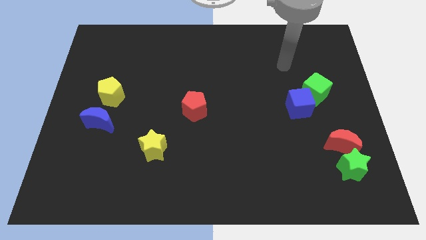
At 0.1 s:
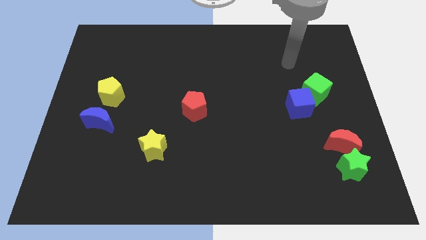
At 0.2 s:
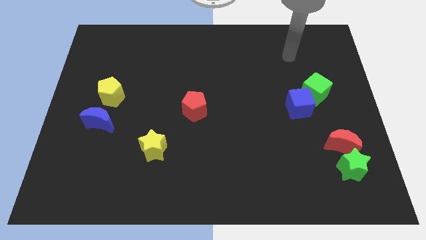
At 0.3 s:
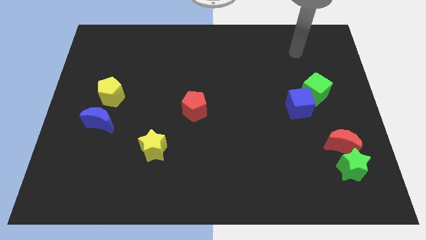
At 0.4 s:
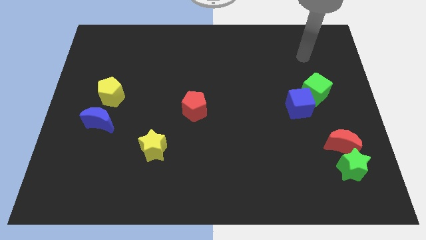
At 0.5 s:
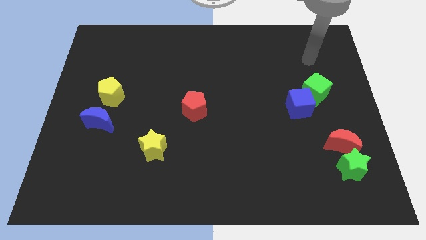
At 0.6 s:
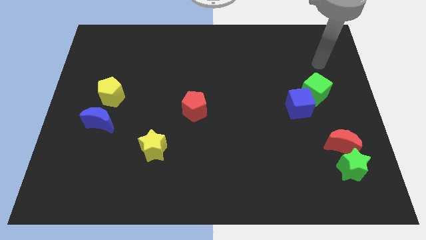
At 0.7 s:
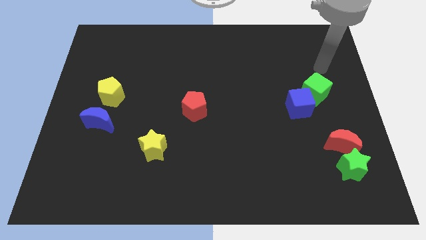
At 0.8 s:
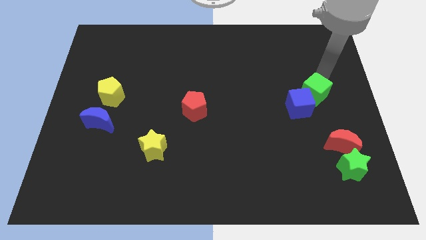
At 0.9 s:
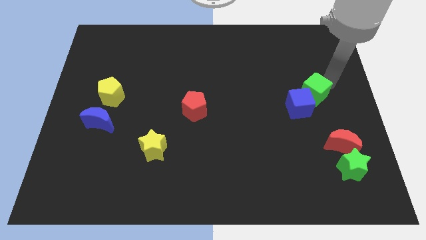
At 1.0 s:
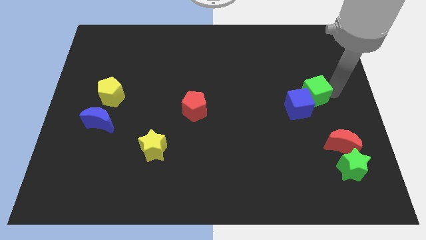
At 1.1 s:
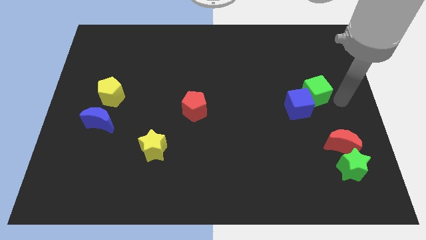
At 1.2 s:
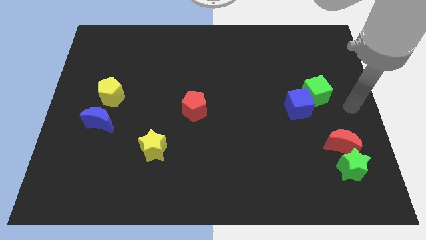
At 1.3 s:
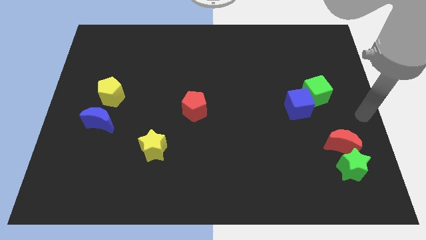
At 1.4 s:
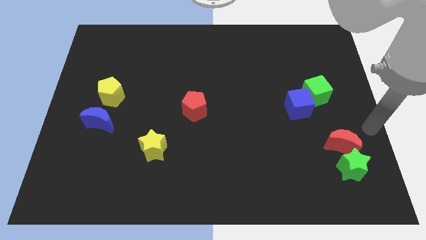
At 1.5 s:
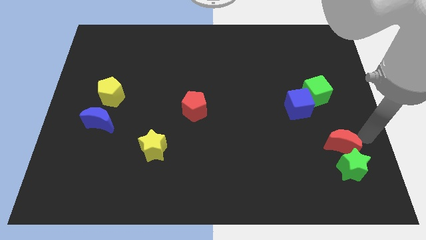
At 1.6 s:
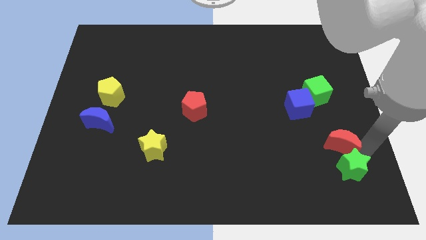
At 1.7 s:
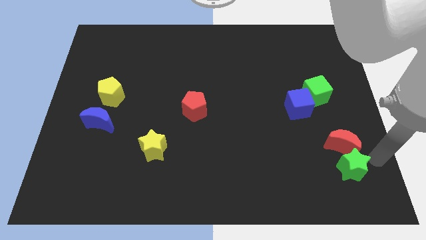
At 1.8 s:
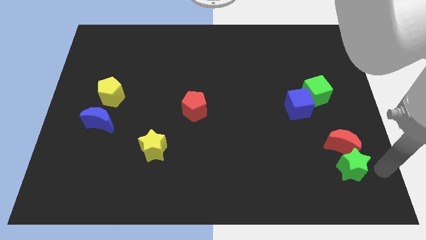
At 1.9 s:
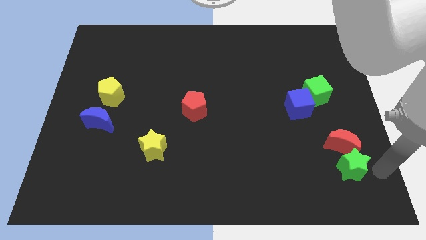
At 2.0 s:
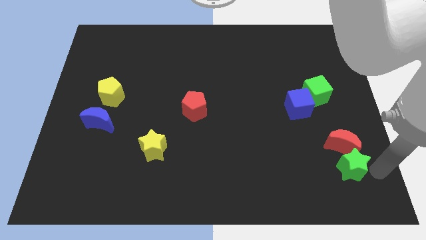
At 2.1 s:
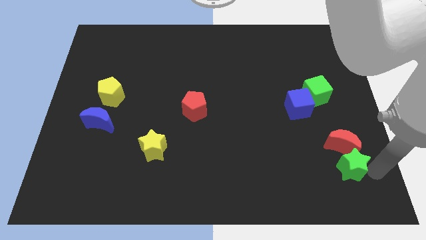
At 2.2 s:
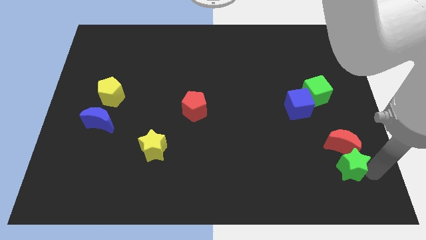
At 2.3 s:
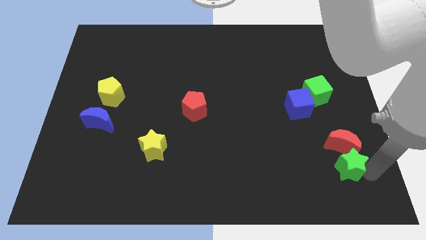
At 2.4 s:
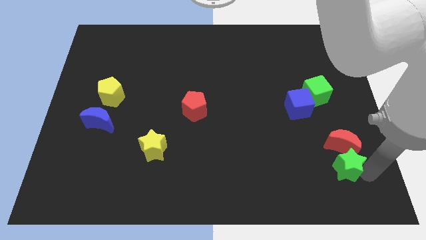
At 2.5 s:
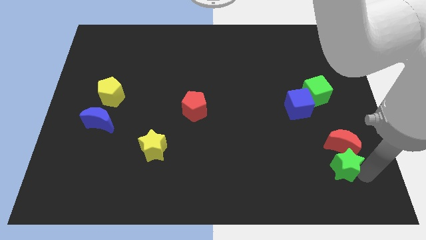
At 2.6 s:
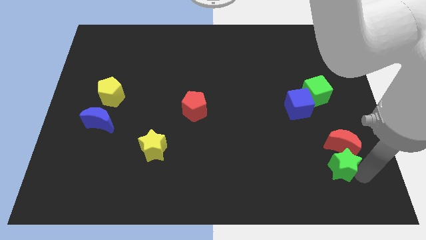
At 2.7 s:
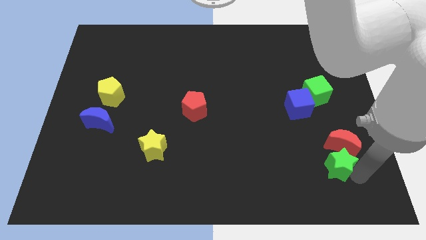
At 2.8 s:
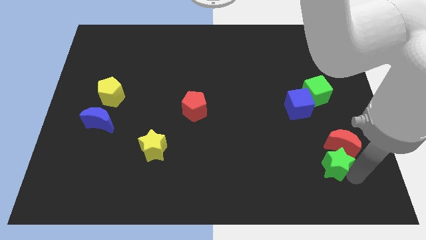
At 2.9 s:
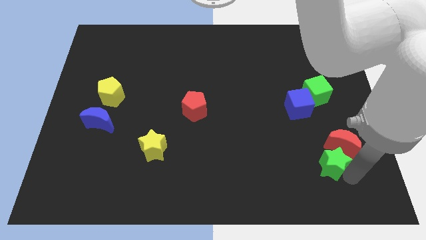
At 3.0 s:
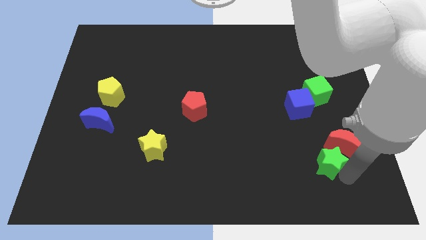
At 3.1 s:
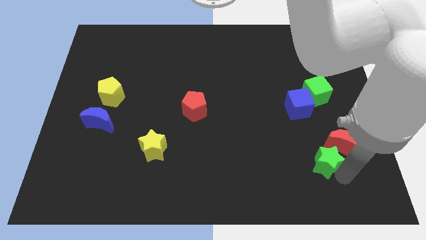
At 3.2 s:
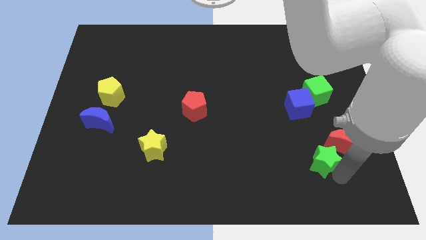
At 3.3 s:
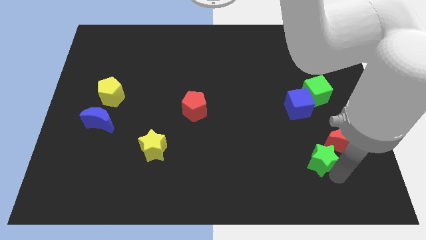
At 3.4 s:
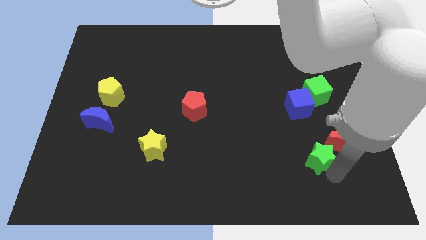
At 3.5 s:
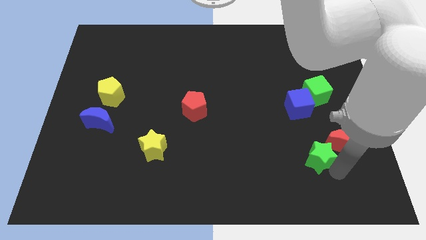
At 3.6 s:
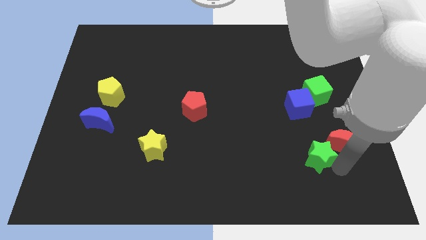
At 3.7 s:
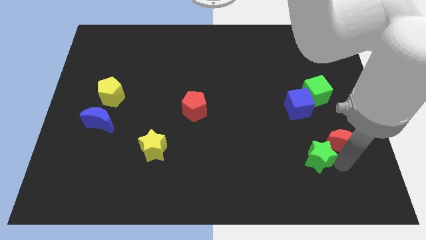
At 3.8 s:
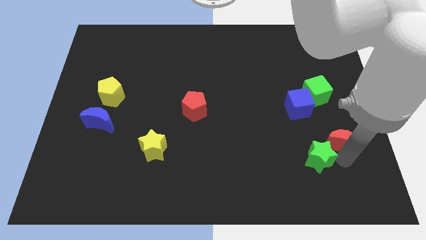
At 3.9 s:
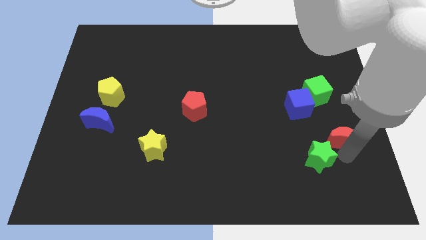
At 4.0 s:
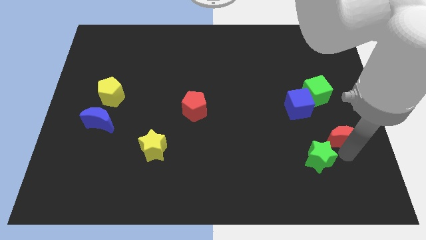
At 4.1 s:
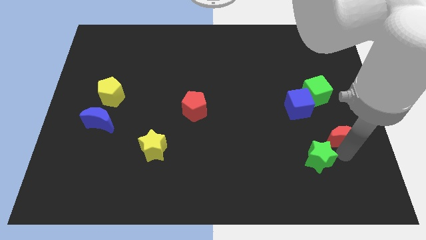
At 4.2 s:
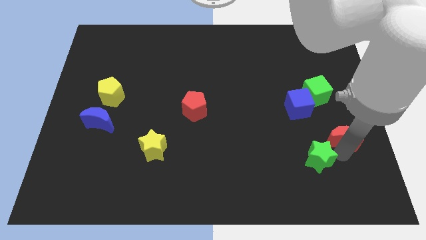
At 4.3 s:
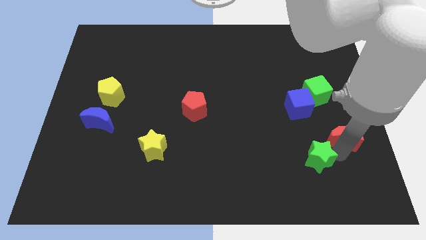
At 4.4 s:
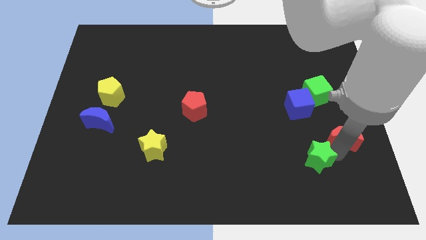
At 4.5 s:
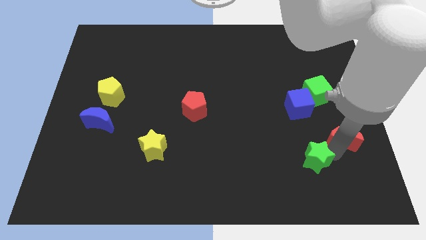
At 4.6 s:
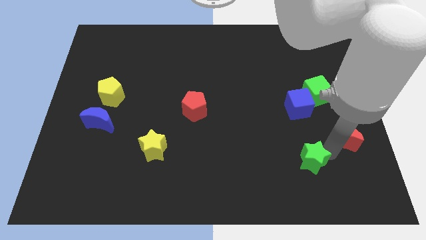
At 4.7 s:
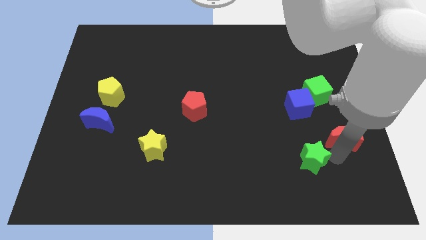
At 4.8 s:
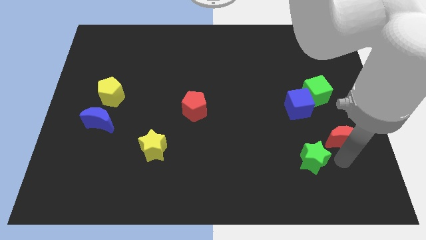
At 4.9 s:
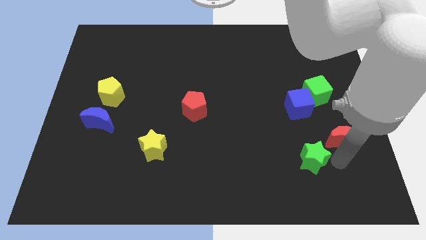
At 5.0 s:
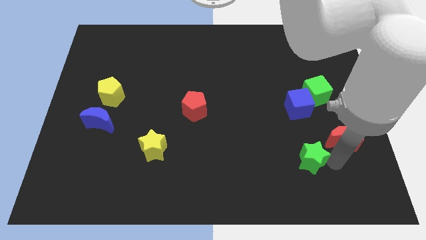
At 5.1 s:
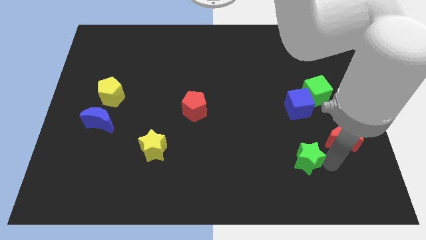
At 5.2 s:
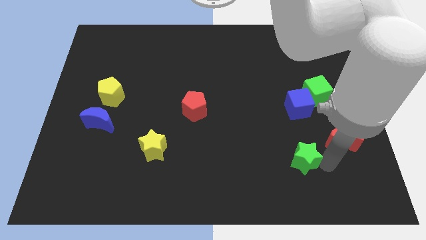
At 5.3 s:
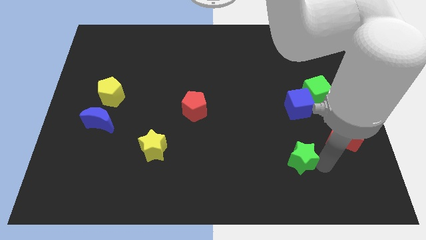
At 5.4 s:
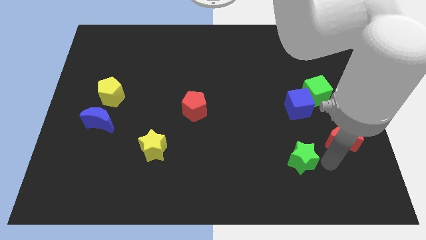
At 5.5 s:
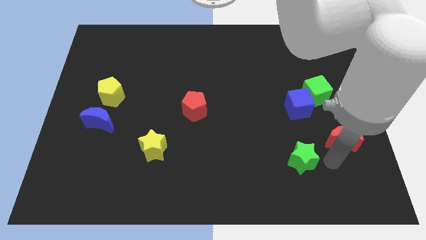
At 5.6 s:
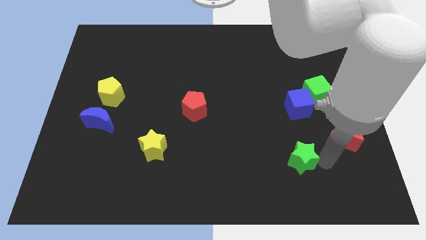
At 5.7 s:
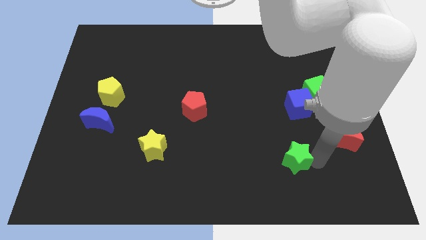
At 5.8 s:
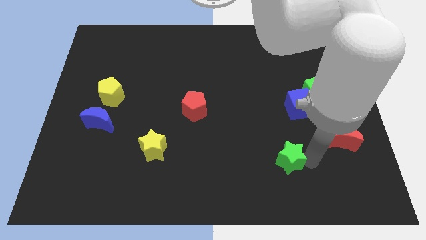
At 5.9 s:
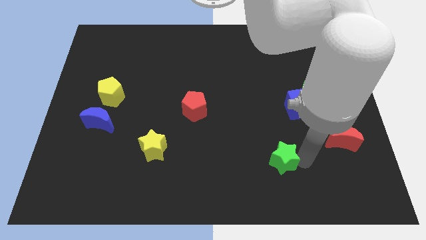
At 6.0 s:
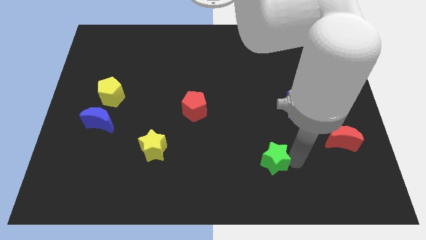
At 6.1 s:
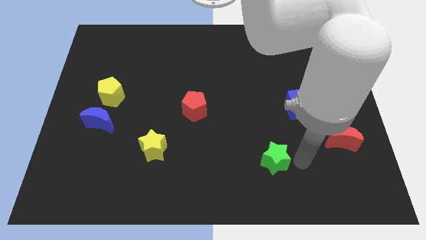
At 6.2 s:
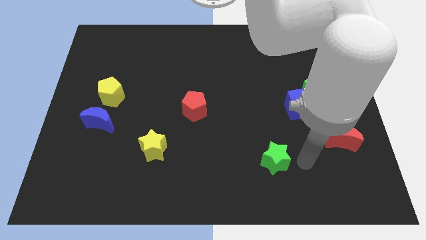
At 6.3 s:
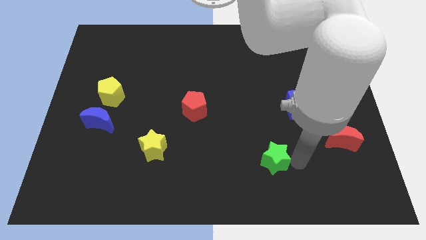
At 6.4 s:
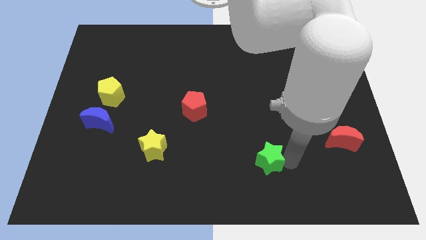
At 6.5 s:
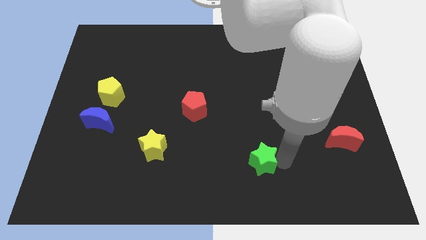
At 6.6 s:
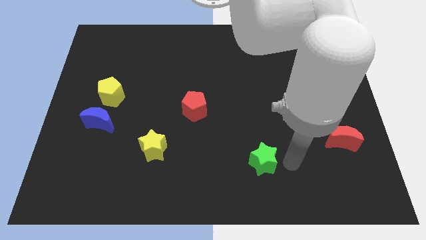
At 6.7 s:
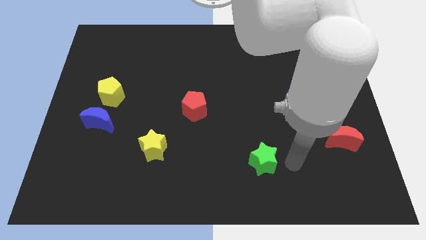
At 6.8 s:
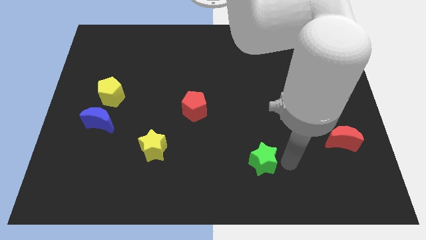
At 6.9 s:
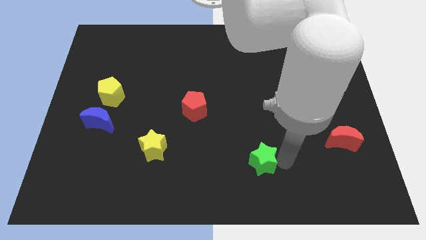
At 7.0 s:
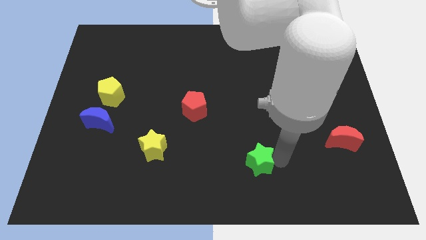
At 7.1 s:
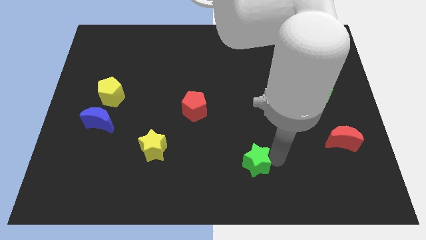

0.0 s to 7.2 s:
push the green star to the left

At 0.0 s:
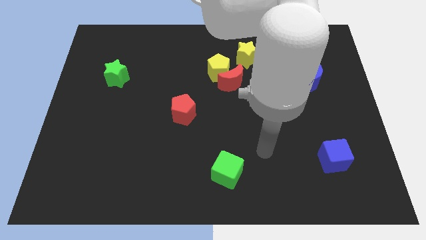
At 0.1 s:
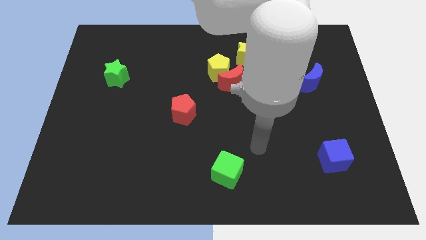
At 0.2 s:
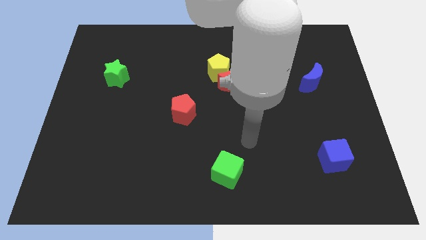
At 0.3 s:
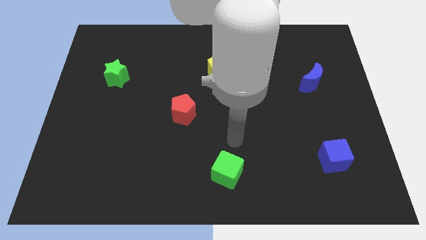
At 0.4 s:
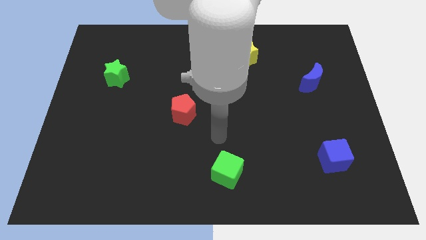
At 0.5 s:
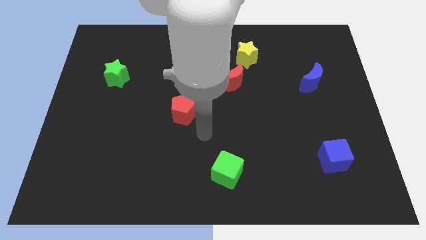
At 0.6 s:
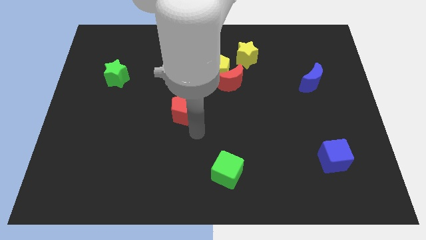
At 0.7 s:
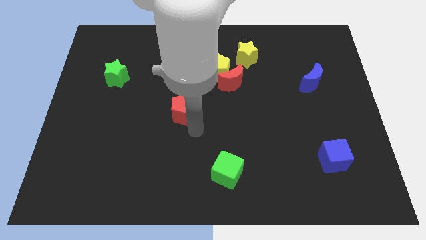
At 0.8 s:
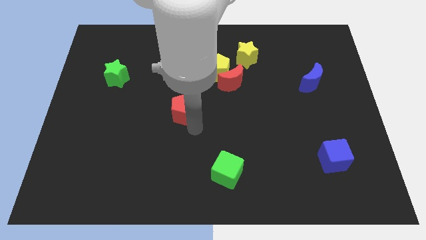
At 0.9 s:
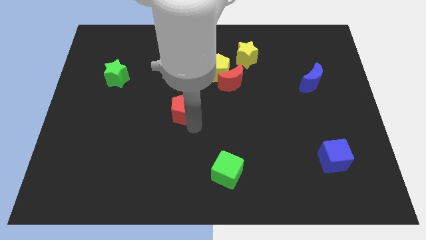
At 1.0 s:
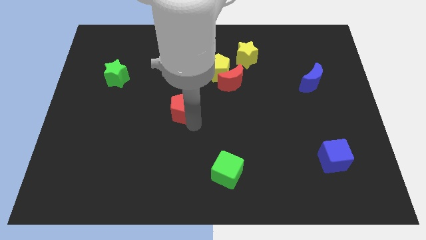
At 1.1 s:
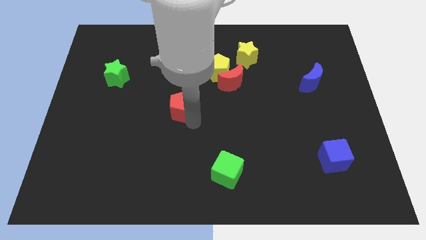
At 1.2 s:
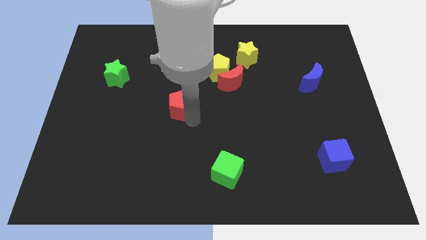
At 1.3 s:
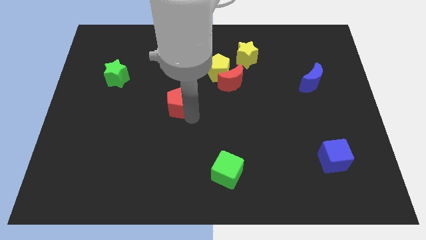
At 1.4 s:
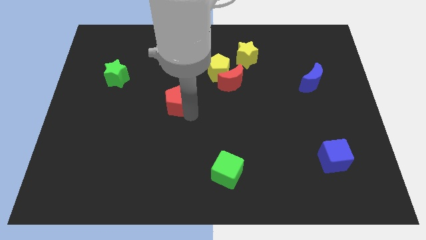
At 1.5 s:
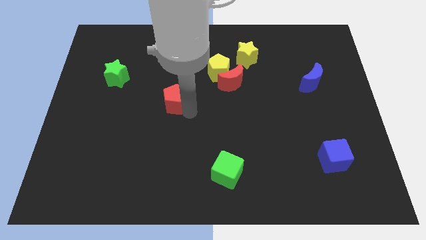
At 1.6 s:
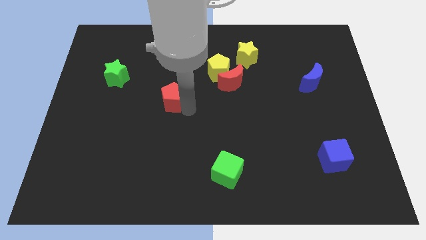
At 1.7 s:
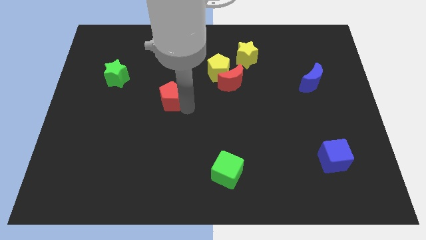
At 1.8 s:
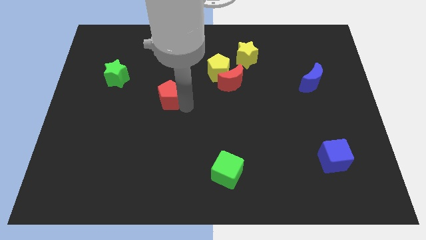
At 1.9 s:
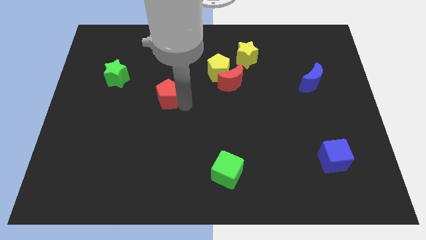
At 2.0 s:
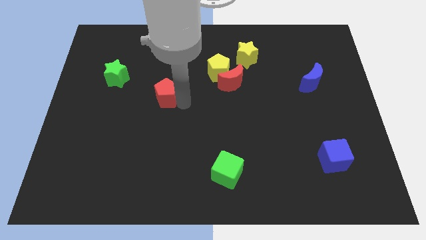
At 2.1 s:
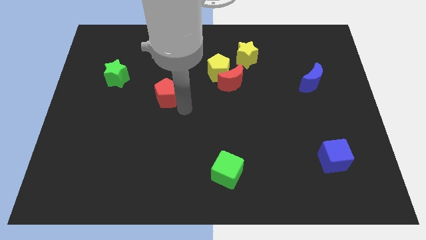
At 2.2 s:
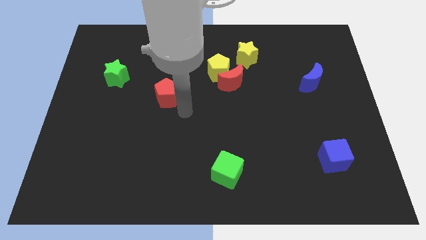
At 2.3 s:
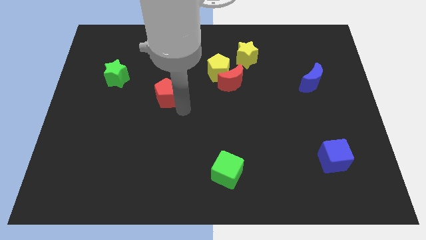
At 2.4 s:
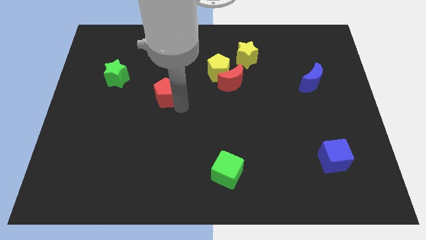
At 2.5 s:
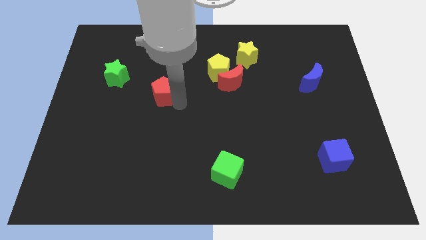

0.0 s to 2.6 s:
move the red pentagon diagonally up and left slightly
